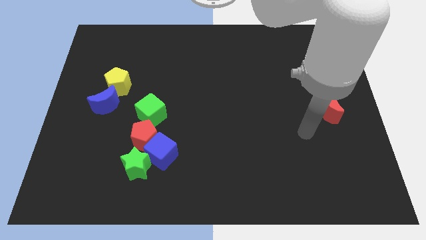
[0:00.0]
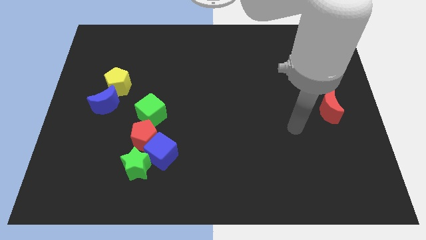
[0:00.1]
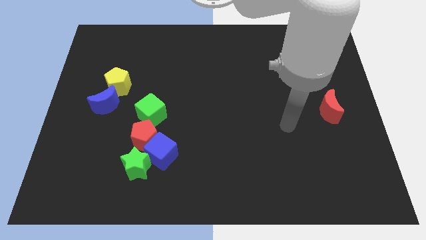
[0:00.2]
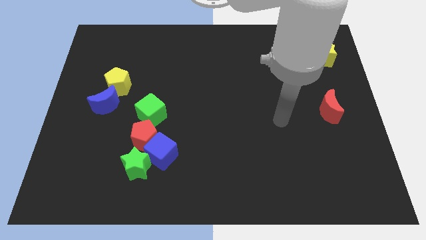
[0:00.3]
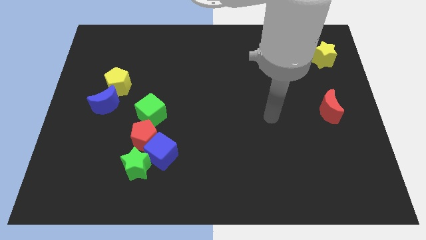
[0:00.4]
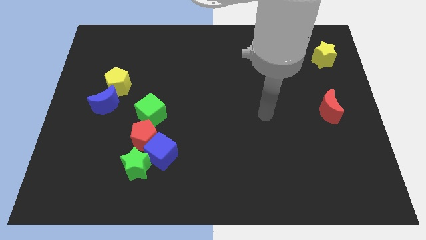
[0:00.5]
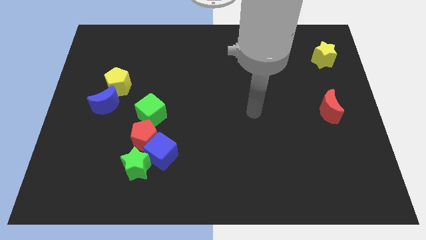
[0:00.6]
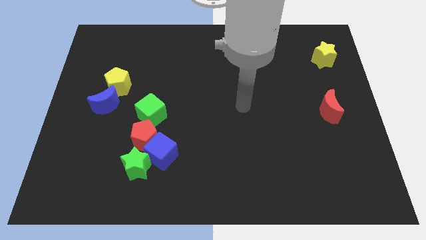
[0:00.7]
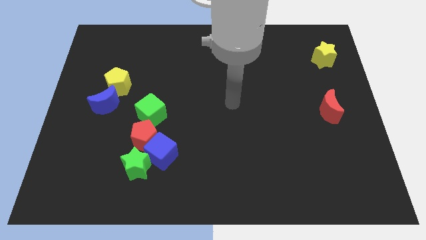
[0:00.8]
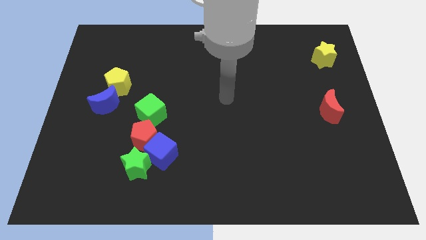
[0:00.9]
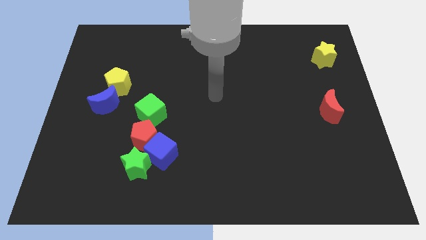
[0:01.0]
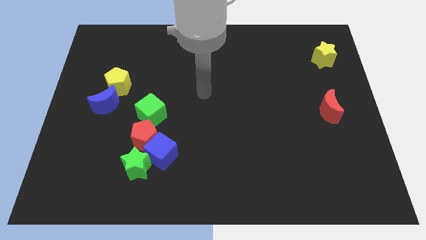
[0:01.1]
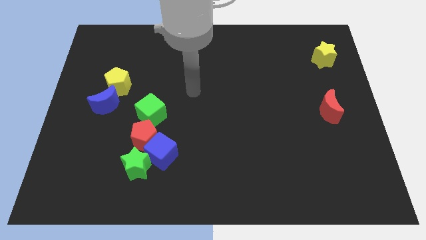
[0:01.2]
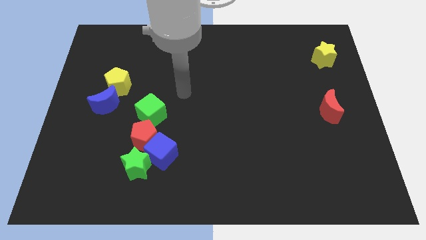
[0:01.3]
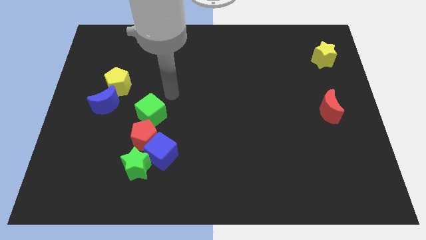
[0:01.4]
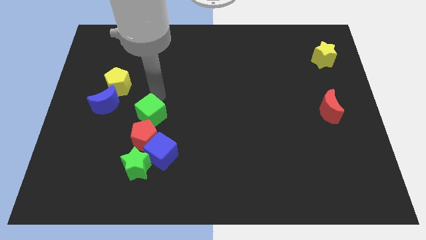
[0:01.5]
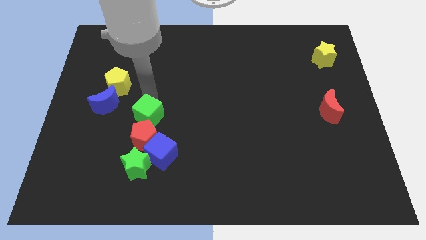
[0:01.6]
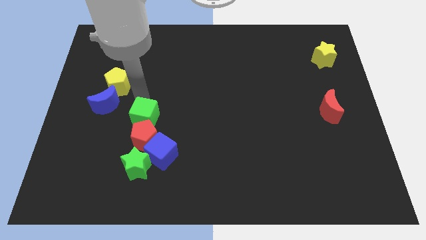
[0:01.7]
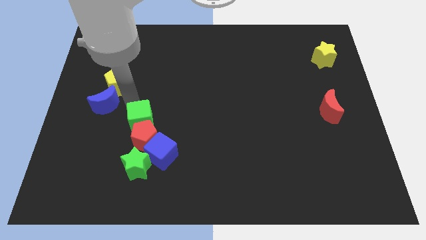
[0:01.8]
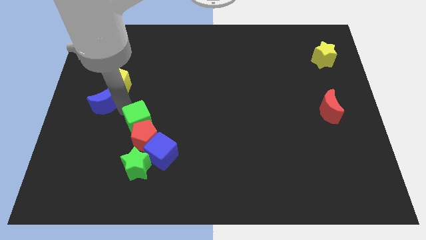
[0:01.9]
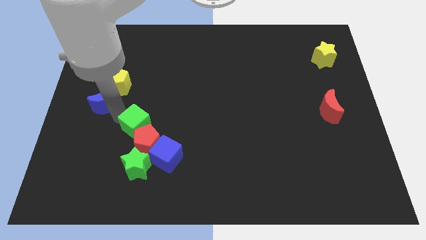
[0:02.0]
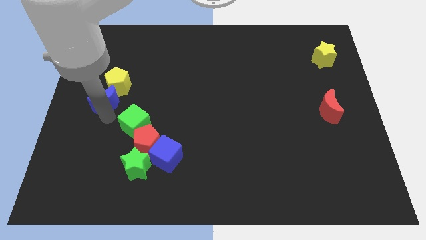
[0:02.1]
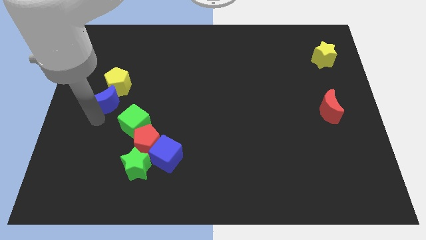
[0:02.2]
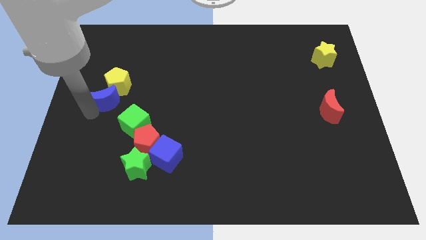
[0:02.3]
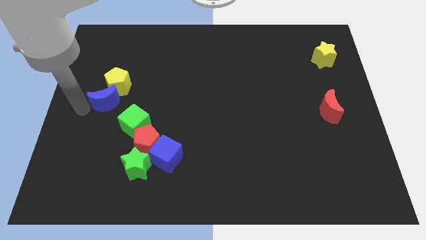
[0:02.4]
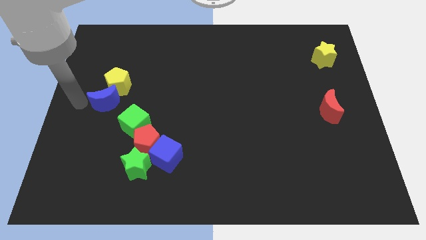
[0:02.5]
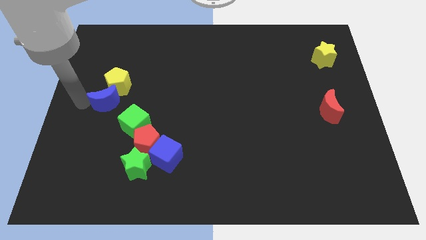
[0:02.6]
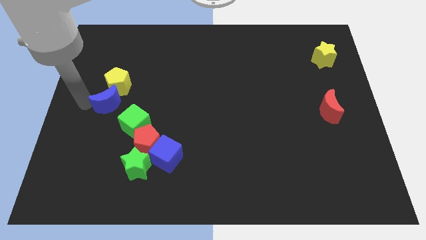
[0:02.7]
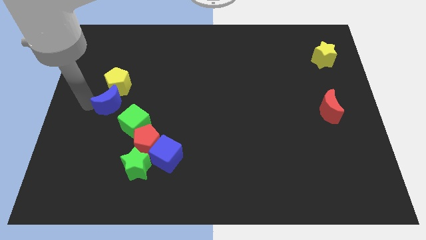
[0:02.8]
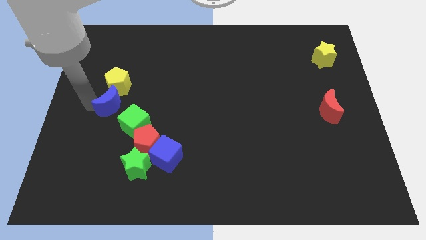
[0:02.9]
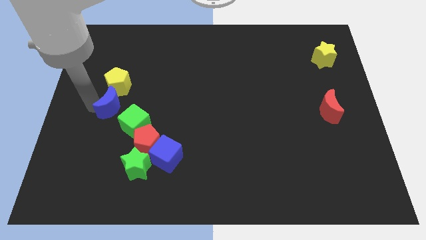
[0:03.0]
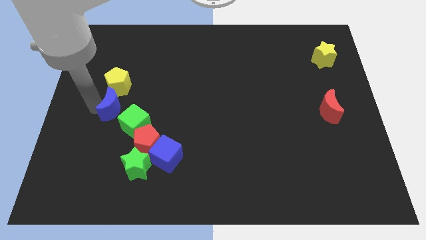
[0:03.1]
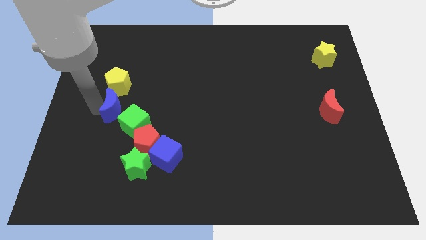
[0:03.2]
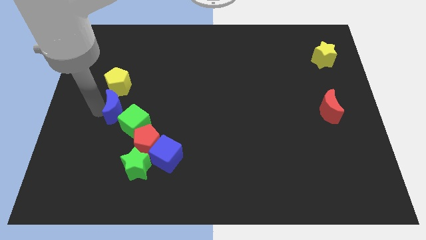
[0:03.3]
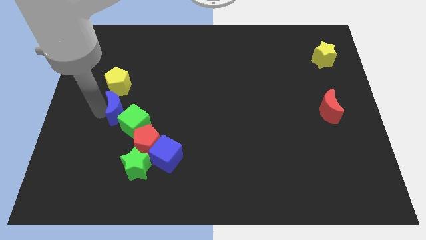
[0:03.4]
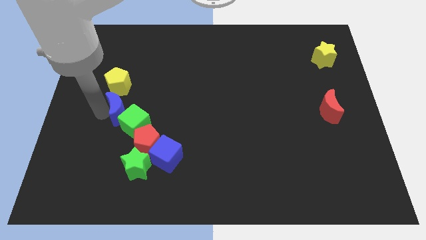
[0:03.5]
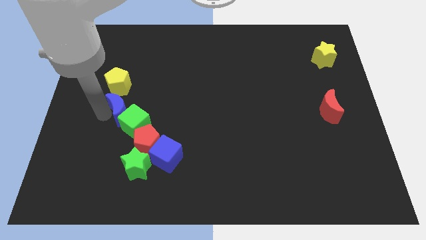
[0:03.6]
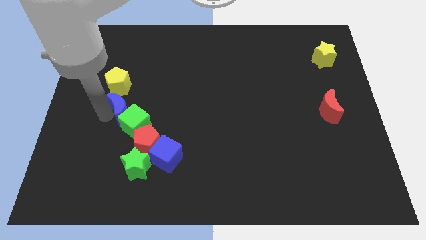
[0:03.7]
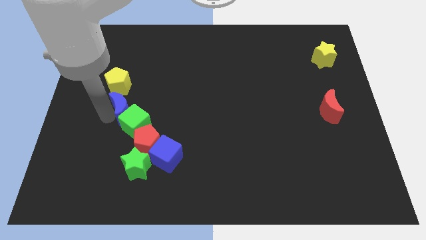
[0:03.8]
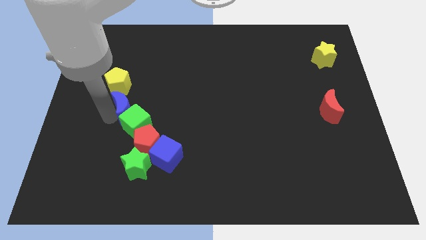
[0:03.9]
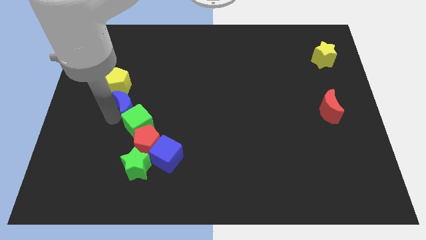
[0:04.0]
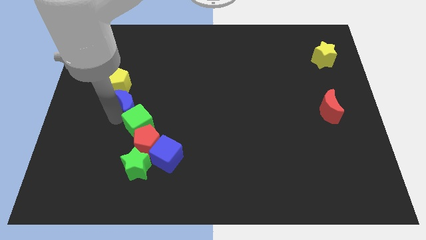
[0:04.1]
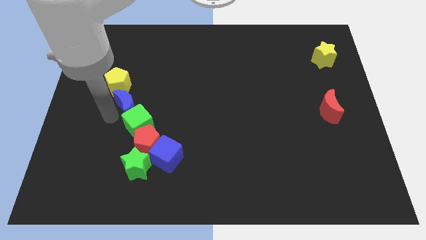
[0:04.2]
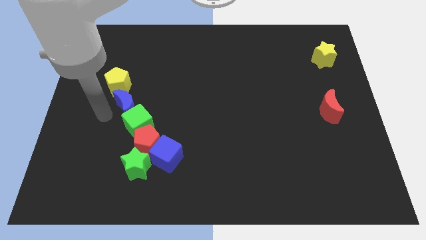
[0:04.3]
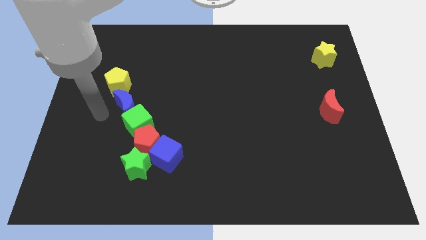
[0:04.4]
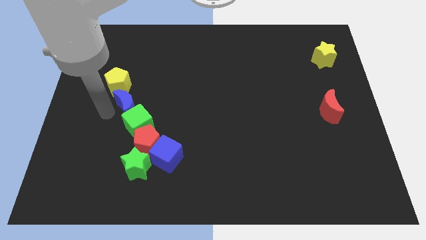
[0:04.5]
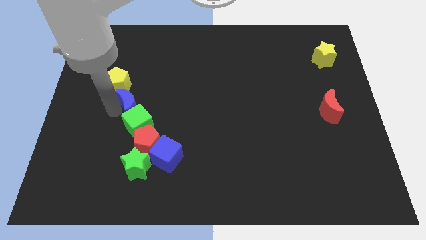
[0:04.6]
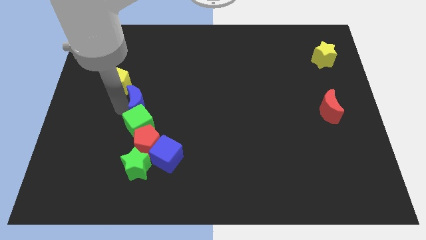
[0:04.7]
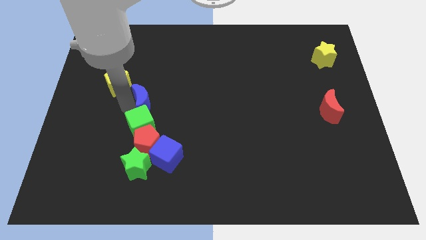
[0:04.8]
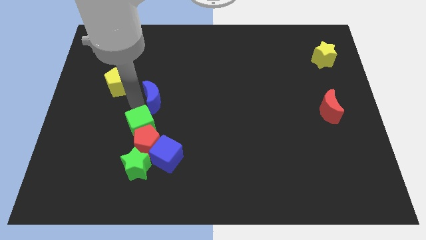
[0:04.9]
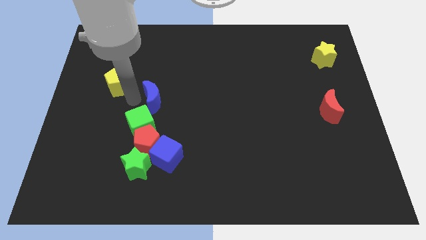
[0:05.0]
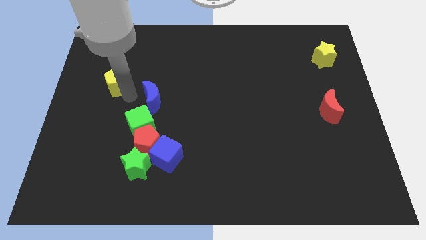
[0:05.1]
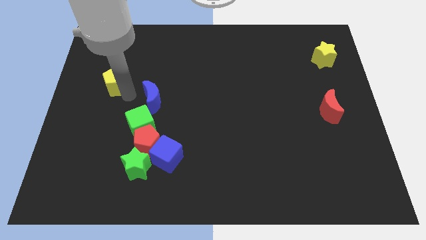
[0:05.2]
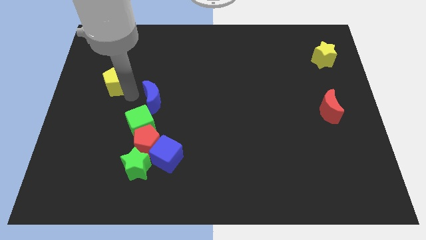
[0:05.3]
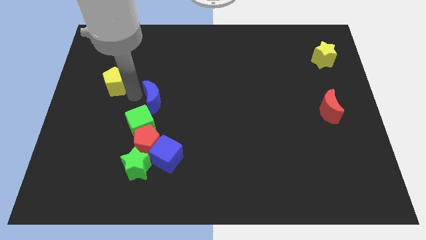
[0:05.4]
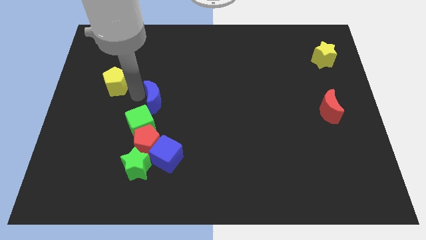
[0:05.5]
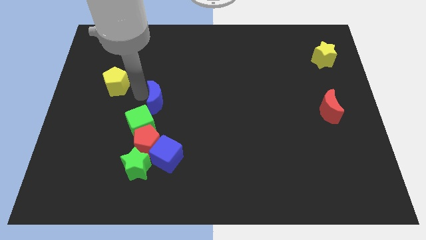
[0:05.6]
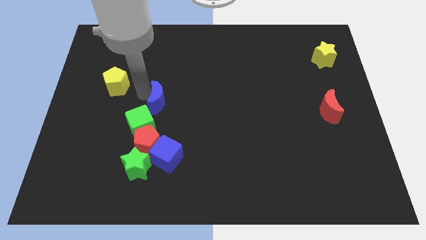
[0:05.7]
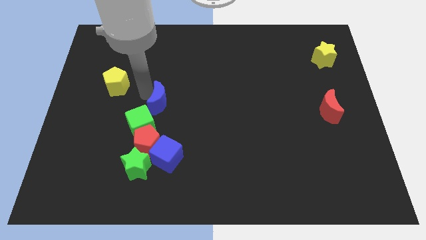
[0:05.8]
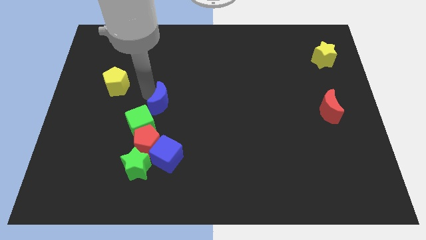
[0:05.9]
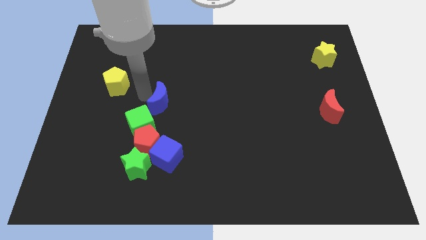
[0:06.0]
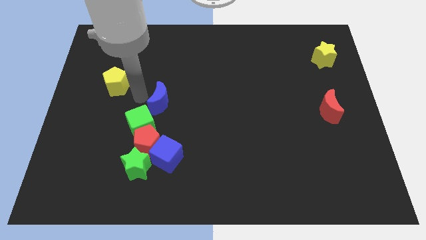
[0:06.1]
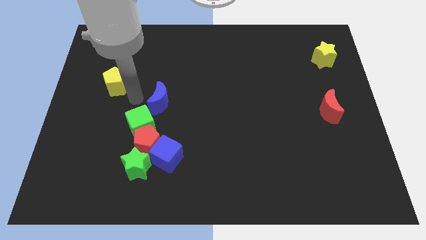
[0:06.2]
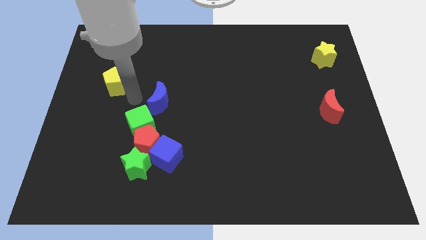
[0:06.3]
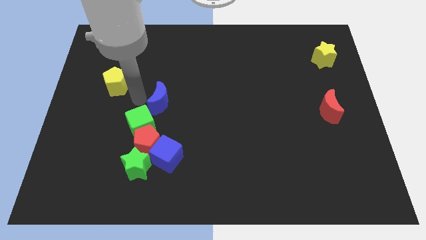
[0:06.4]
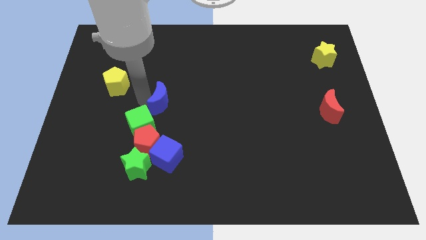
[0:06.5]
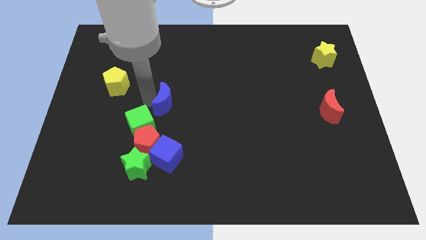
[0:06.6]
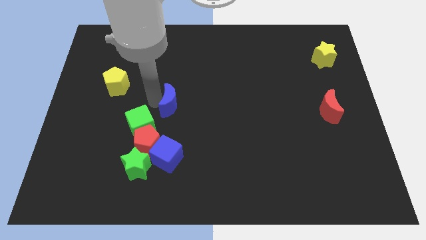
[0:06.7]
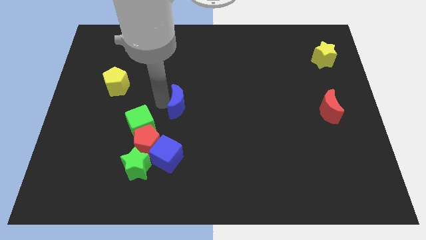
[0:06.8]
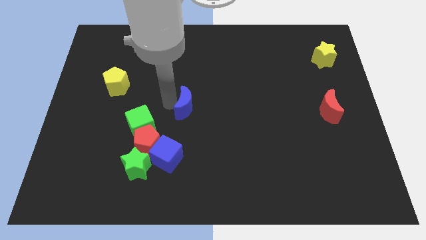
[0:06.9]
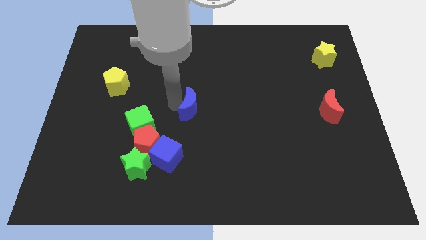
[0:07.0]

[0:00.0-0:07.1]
push the blue moon right

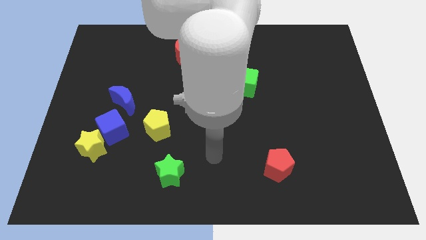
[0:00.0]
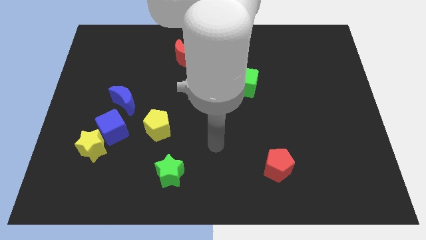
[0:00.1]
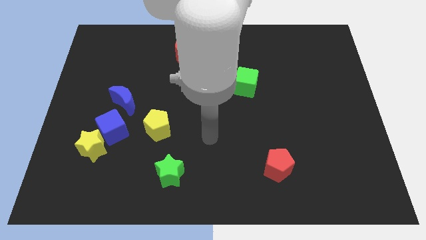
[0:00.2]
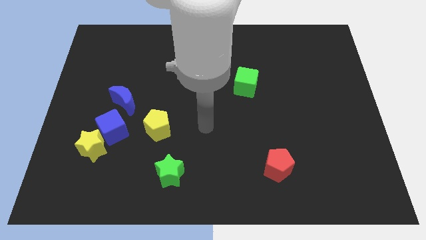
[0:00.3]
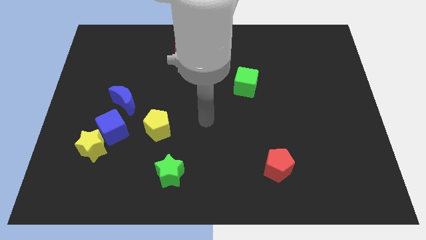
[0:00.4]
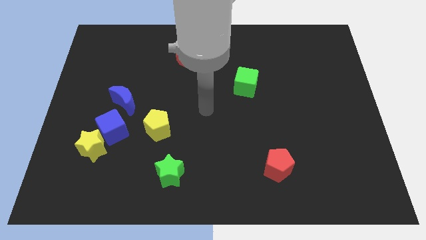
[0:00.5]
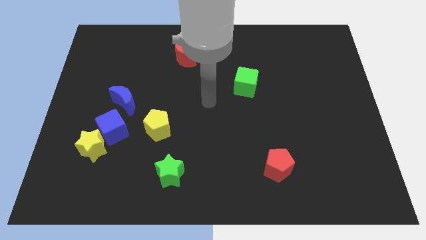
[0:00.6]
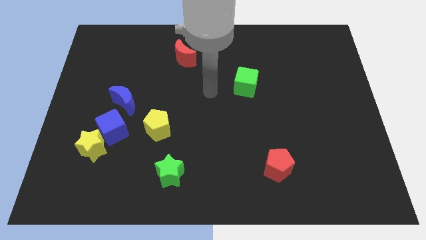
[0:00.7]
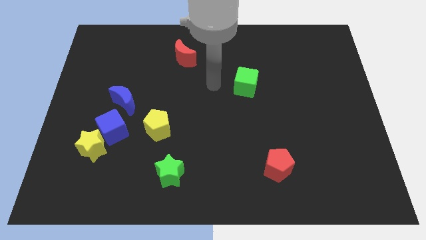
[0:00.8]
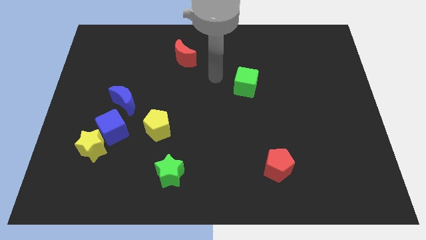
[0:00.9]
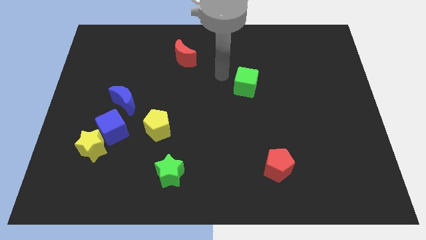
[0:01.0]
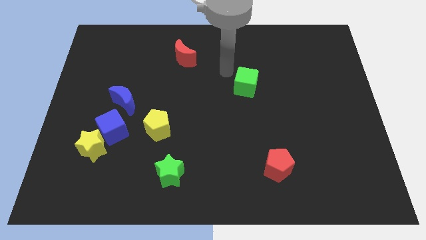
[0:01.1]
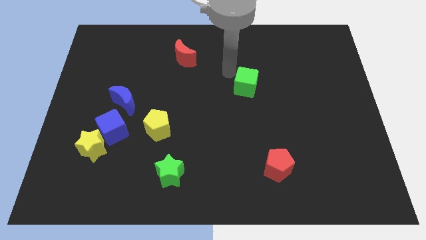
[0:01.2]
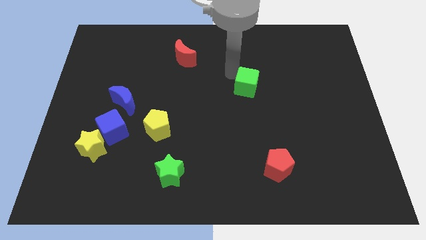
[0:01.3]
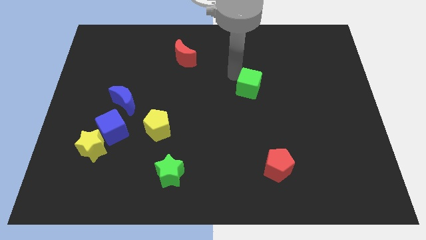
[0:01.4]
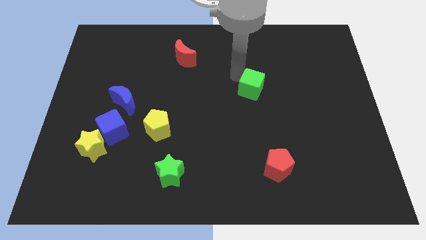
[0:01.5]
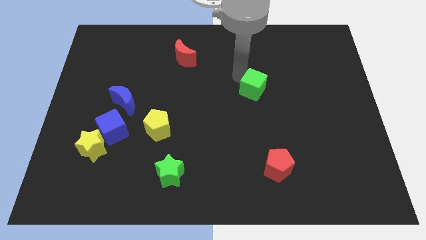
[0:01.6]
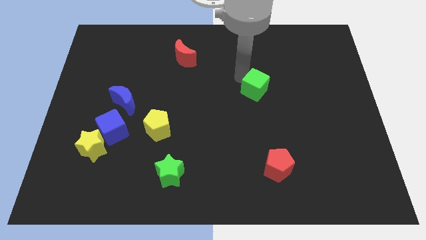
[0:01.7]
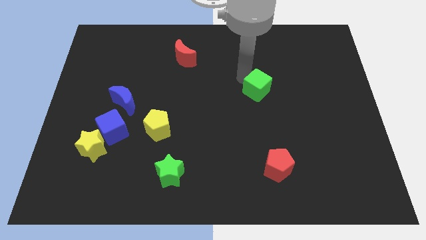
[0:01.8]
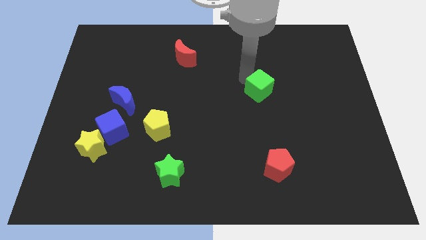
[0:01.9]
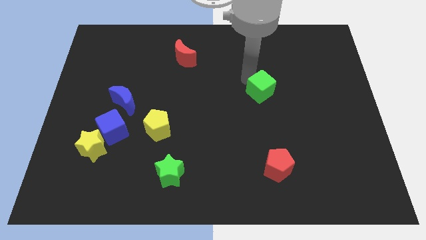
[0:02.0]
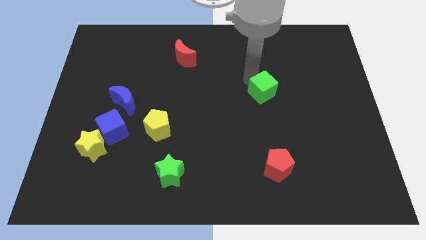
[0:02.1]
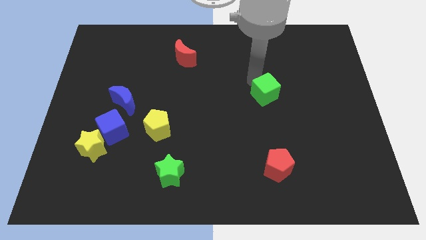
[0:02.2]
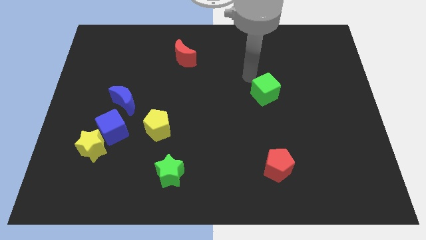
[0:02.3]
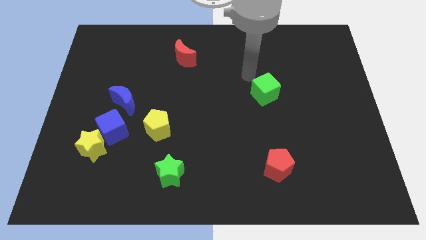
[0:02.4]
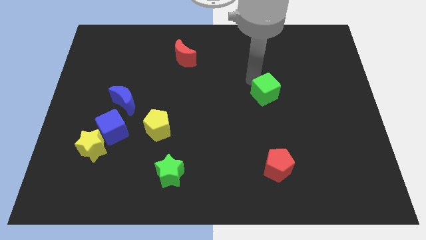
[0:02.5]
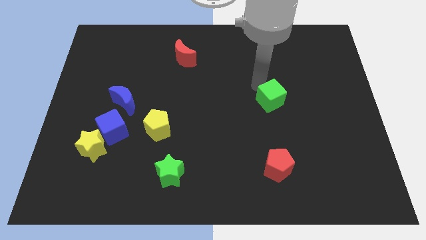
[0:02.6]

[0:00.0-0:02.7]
slide the green cube a little bit down and right
